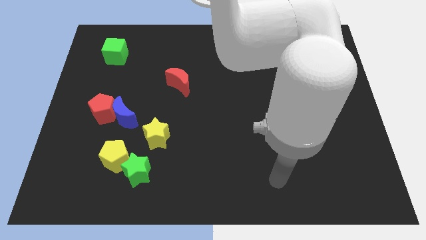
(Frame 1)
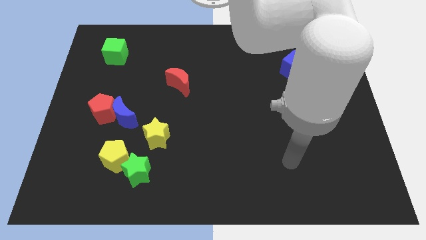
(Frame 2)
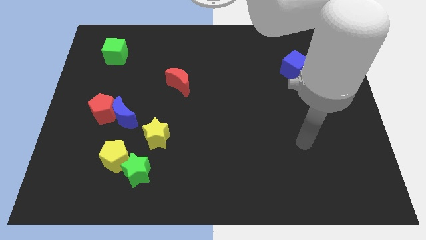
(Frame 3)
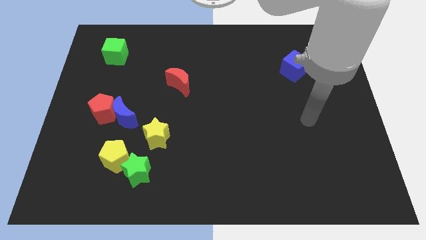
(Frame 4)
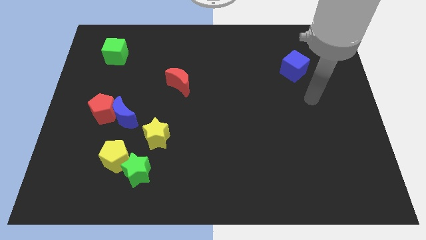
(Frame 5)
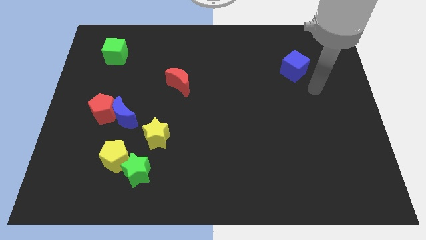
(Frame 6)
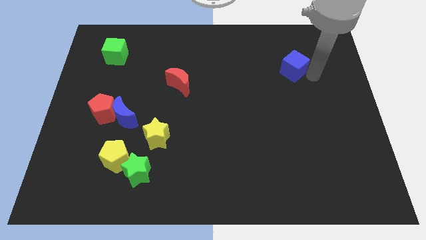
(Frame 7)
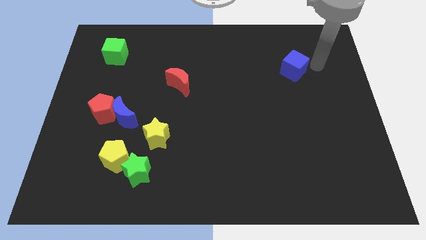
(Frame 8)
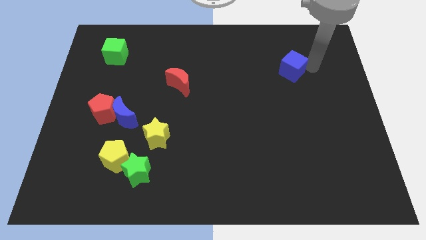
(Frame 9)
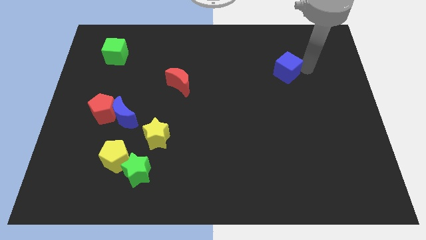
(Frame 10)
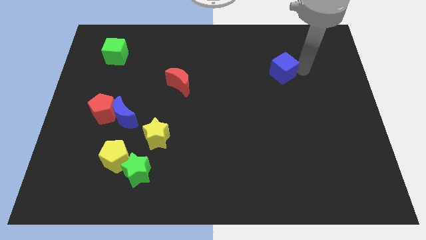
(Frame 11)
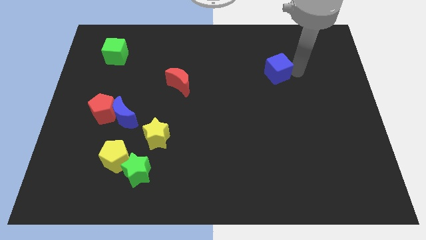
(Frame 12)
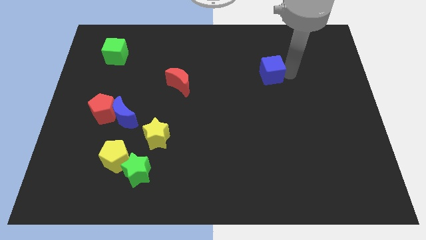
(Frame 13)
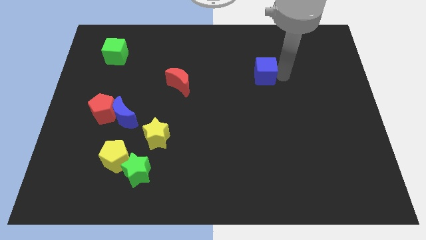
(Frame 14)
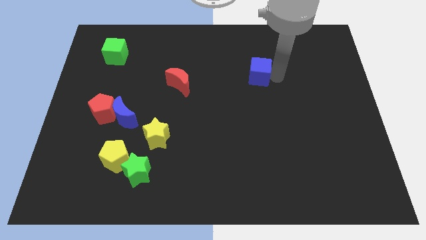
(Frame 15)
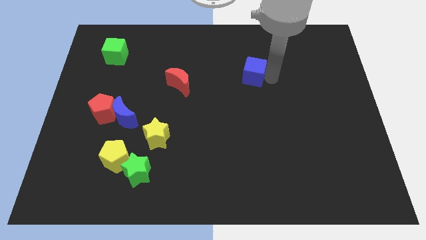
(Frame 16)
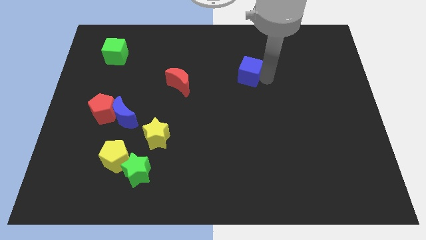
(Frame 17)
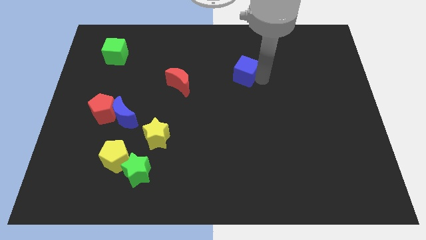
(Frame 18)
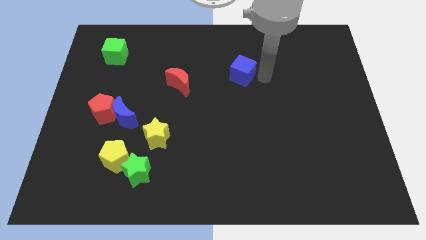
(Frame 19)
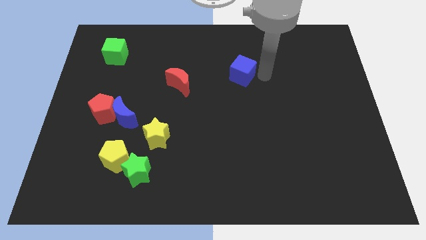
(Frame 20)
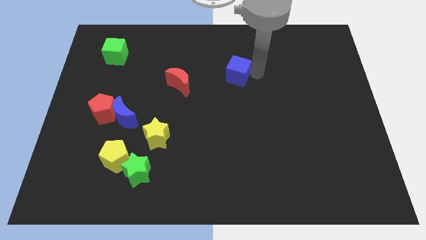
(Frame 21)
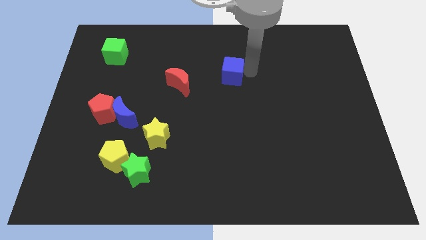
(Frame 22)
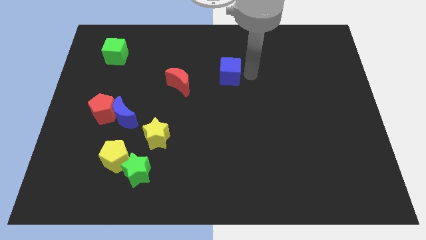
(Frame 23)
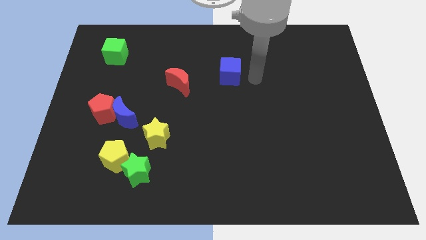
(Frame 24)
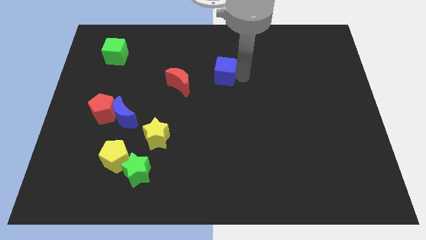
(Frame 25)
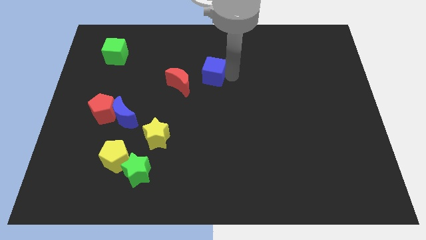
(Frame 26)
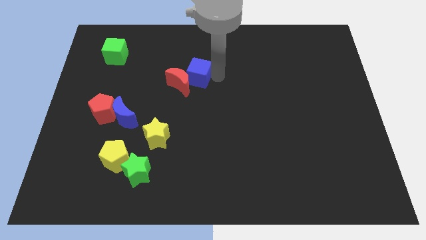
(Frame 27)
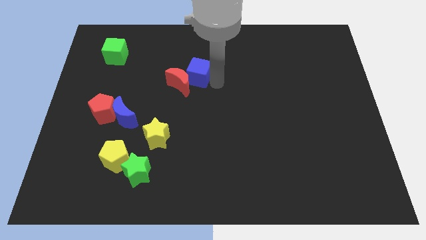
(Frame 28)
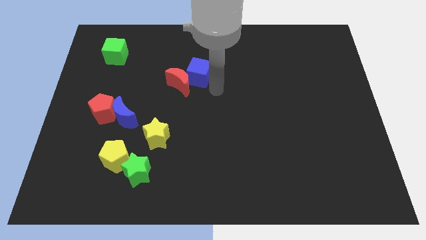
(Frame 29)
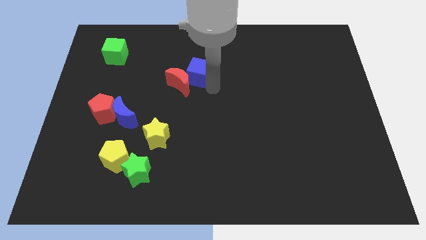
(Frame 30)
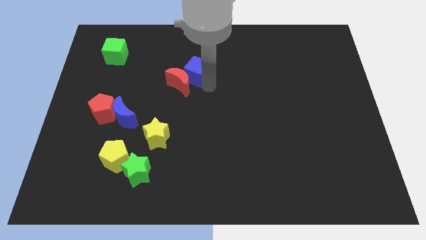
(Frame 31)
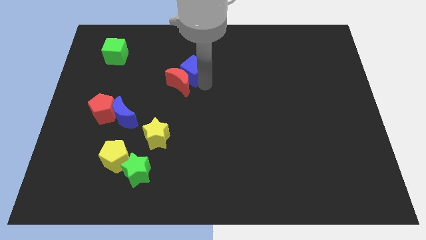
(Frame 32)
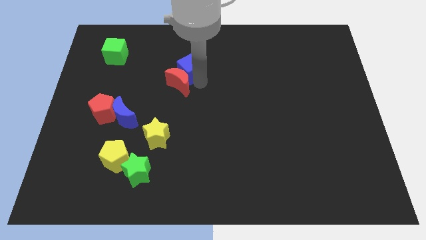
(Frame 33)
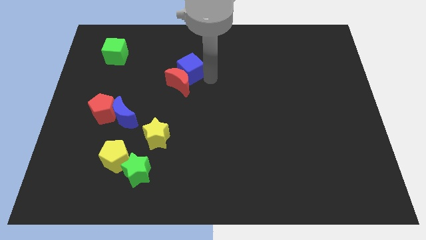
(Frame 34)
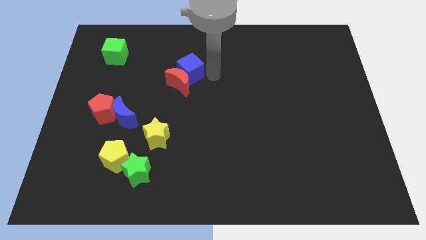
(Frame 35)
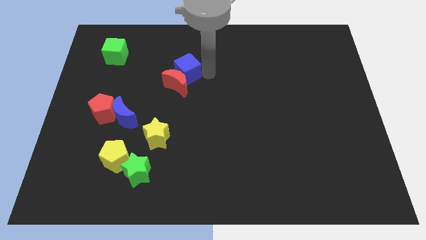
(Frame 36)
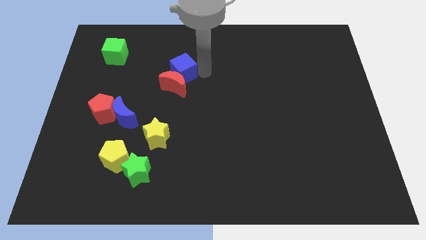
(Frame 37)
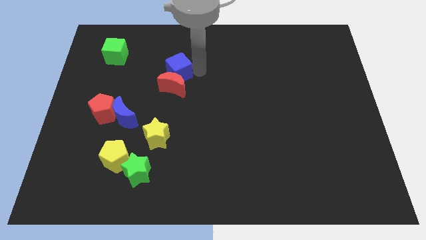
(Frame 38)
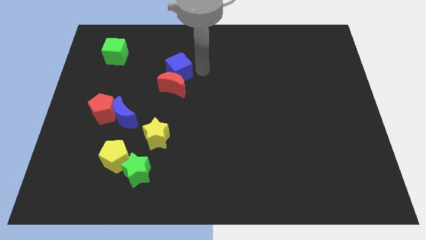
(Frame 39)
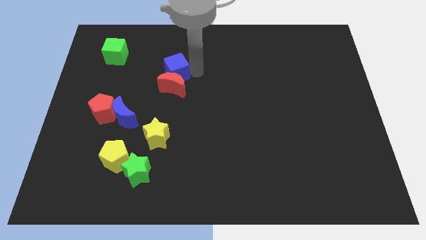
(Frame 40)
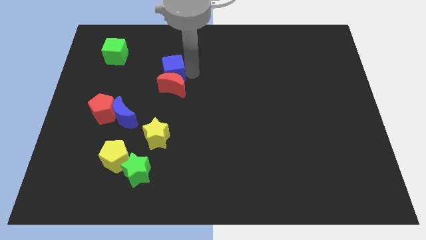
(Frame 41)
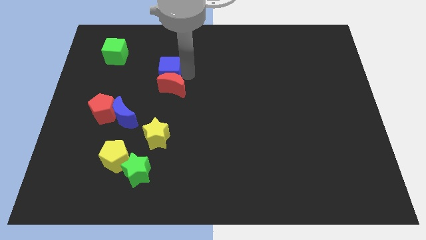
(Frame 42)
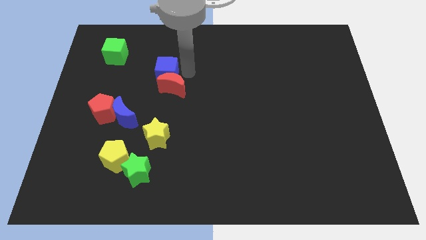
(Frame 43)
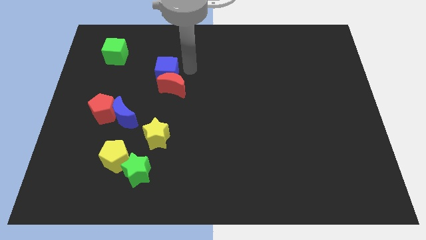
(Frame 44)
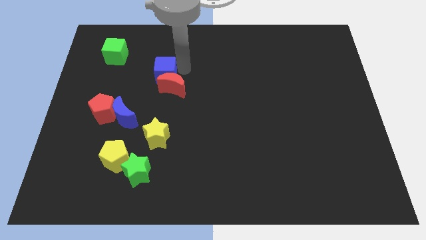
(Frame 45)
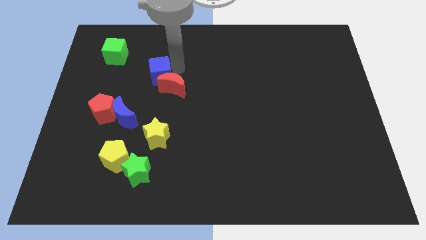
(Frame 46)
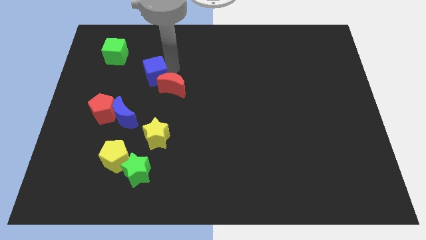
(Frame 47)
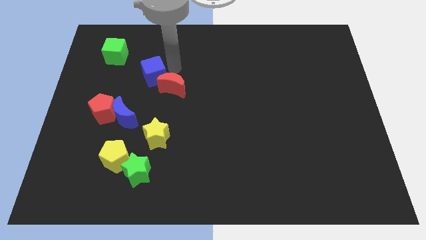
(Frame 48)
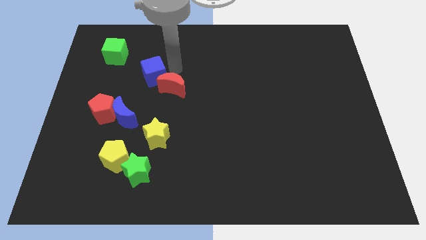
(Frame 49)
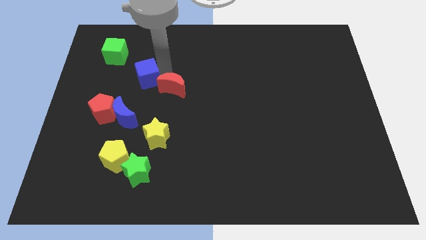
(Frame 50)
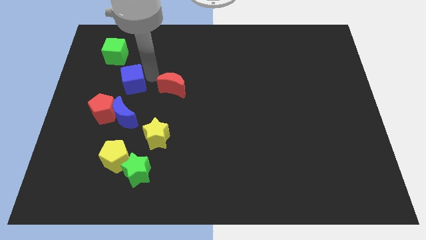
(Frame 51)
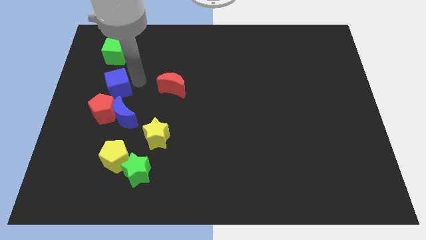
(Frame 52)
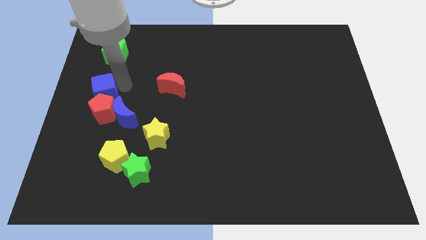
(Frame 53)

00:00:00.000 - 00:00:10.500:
put the blue cube to the left side

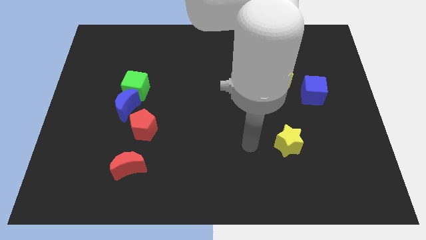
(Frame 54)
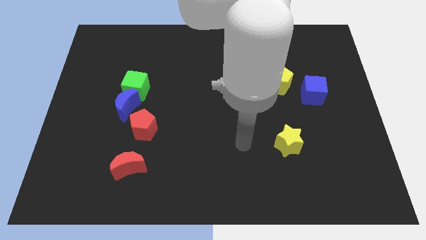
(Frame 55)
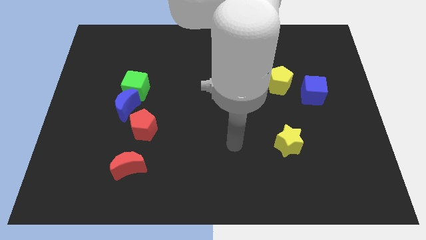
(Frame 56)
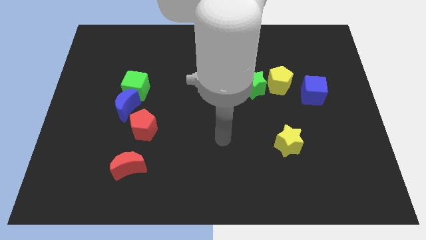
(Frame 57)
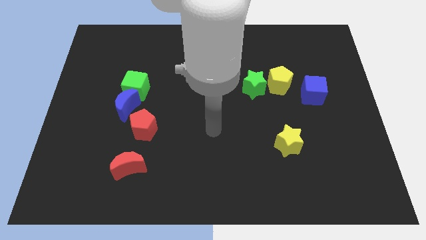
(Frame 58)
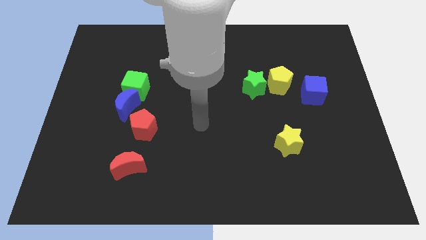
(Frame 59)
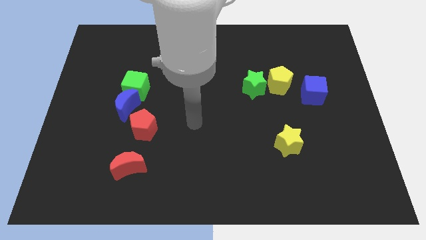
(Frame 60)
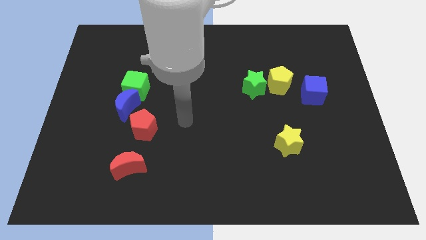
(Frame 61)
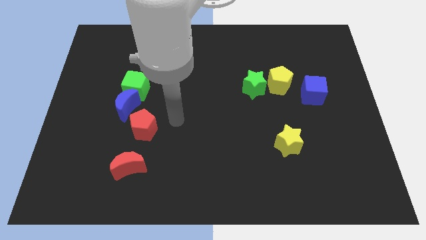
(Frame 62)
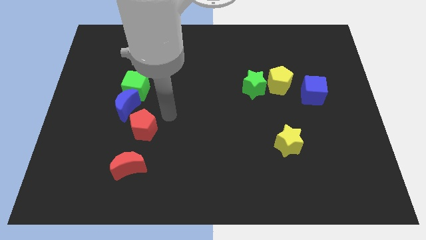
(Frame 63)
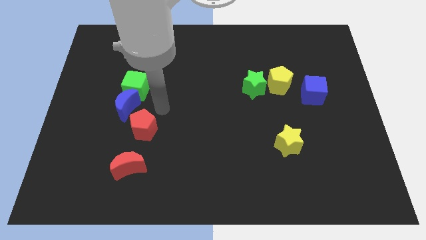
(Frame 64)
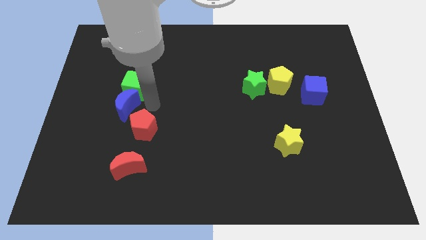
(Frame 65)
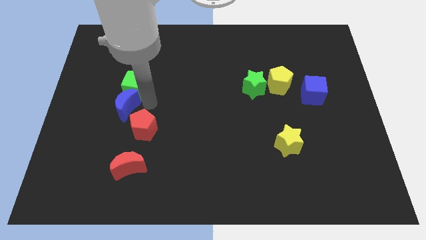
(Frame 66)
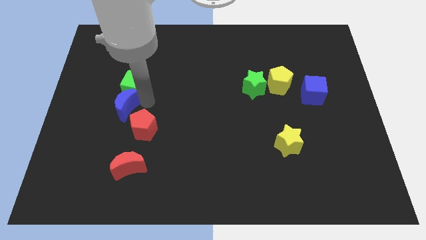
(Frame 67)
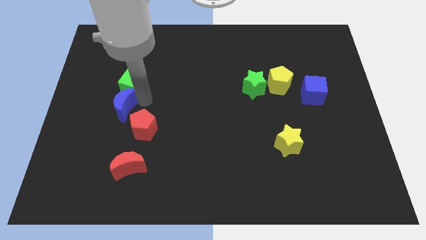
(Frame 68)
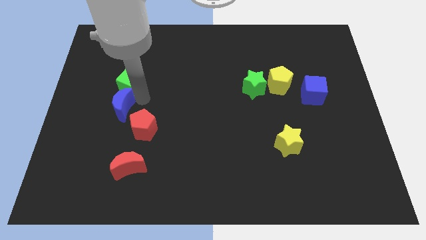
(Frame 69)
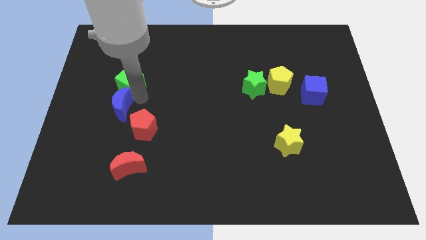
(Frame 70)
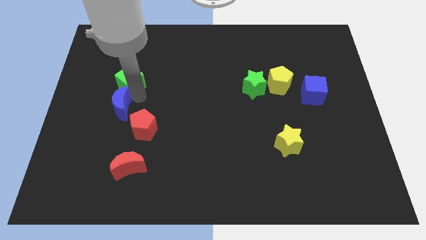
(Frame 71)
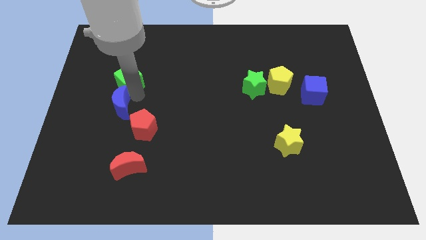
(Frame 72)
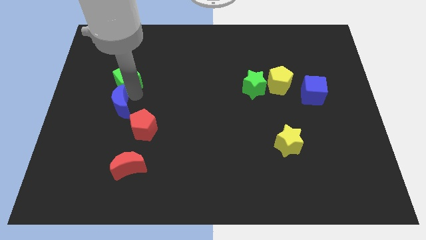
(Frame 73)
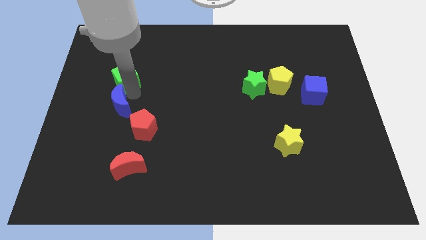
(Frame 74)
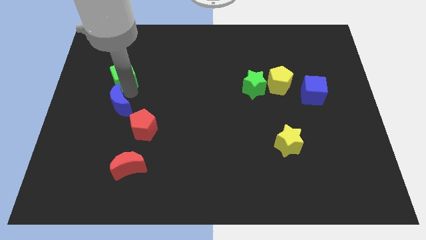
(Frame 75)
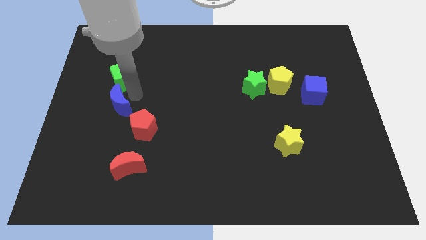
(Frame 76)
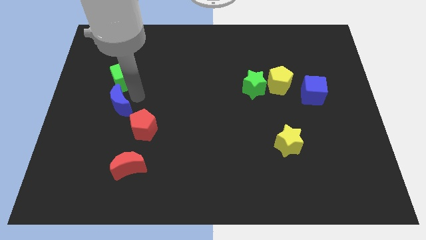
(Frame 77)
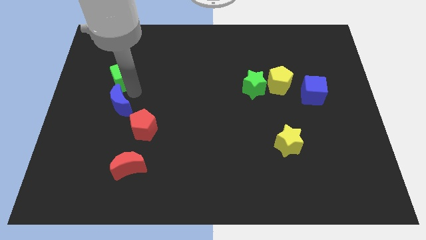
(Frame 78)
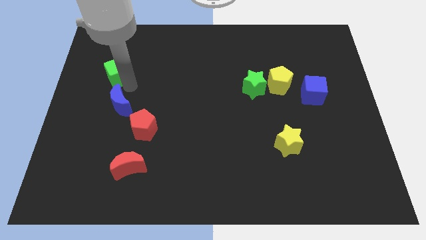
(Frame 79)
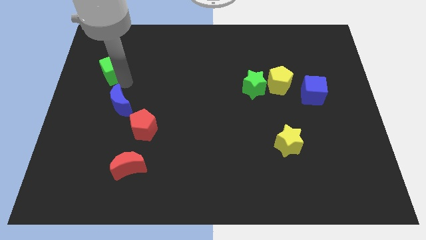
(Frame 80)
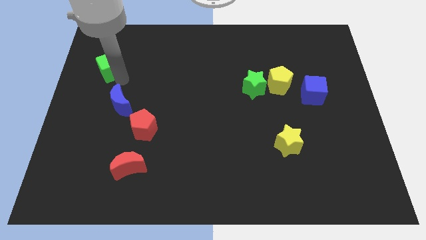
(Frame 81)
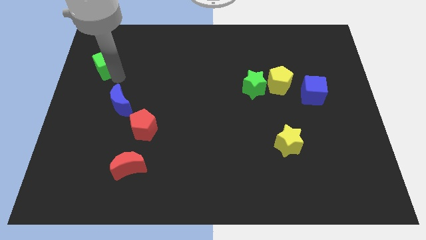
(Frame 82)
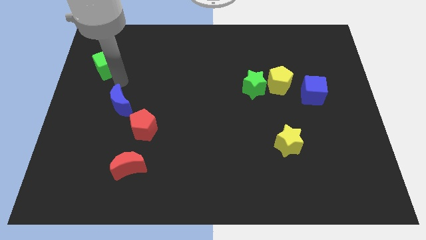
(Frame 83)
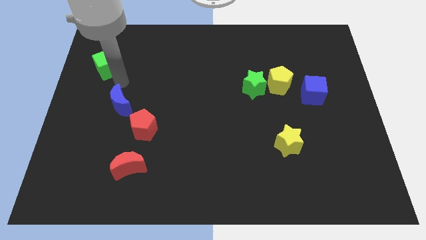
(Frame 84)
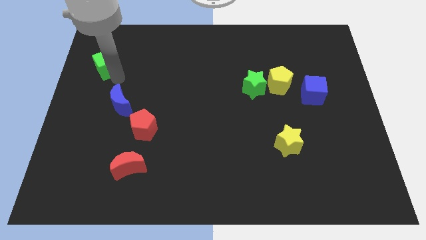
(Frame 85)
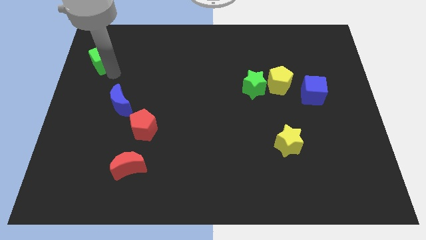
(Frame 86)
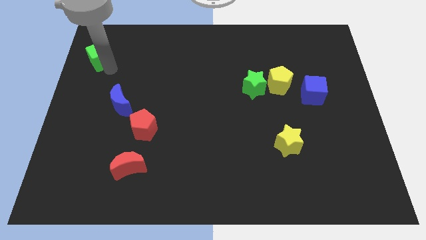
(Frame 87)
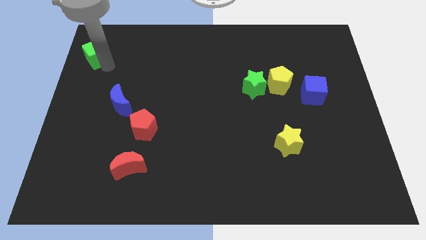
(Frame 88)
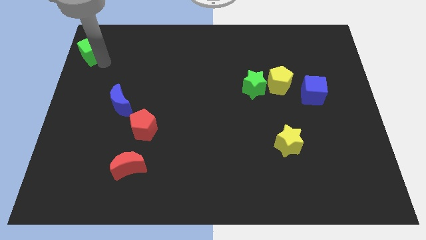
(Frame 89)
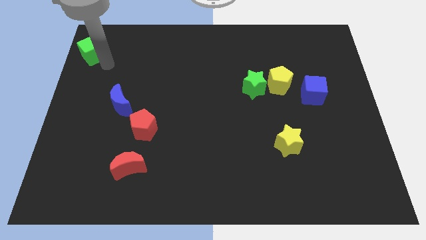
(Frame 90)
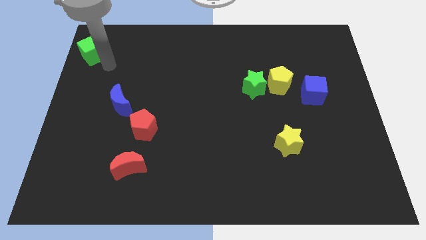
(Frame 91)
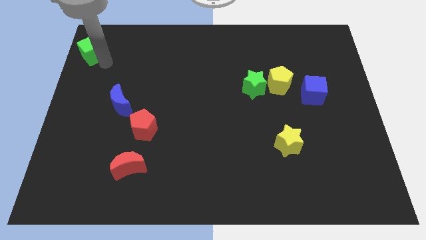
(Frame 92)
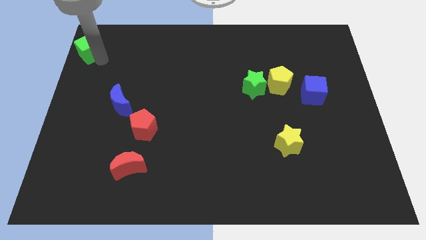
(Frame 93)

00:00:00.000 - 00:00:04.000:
put the green cube to the top left
